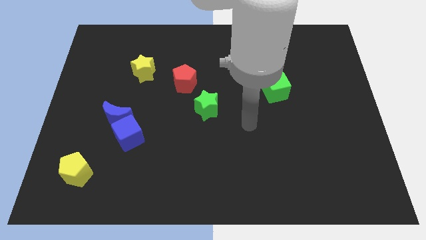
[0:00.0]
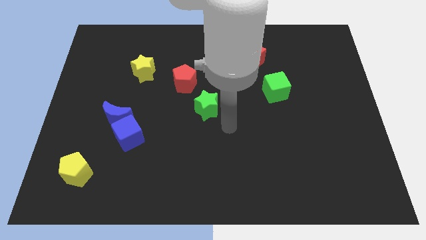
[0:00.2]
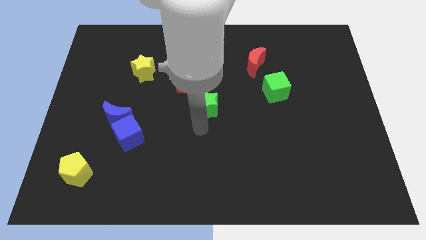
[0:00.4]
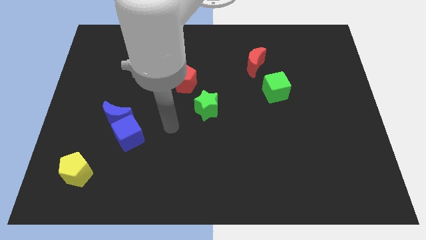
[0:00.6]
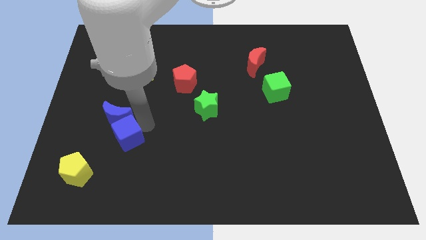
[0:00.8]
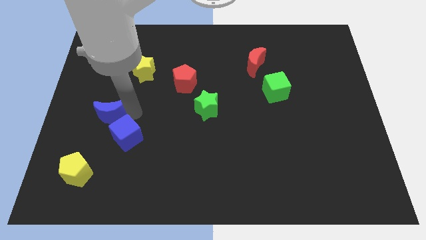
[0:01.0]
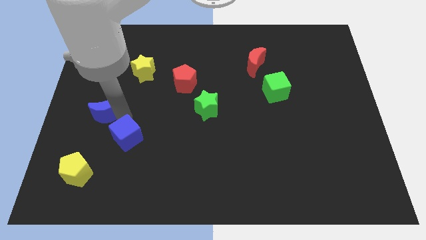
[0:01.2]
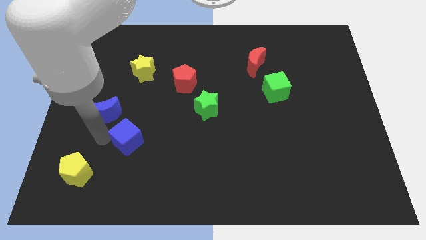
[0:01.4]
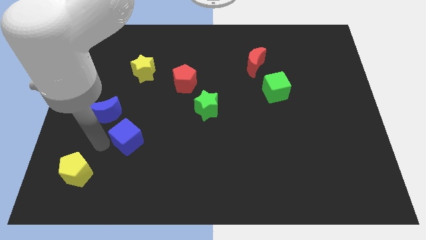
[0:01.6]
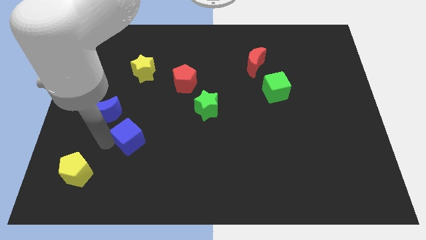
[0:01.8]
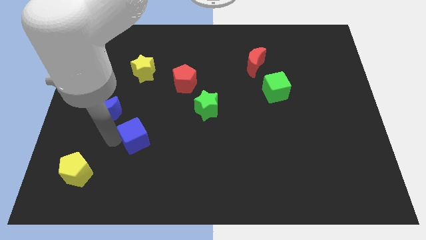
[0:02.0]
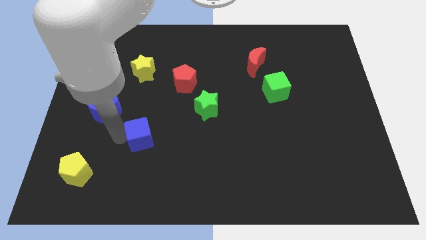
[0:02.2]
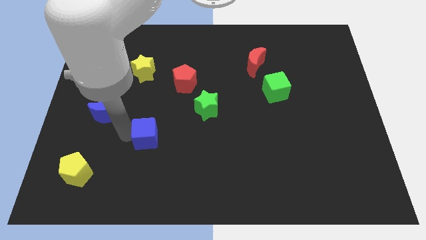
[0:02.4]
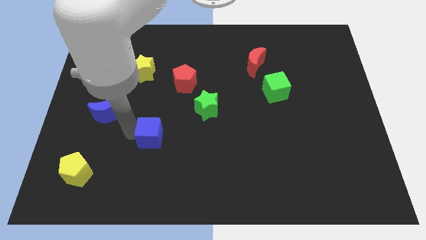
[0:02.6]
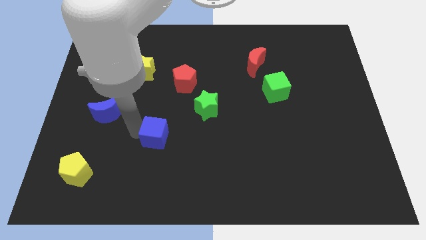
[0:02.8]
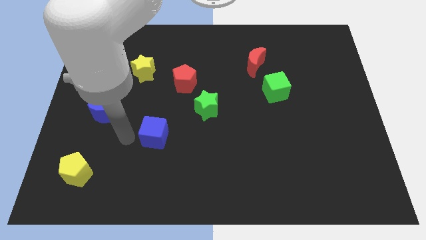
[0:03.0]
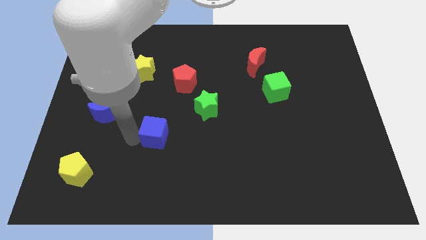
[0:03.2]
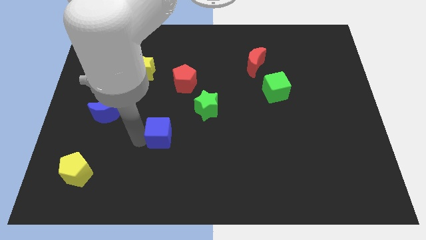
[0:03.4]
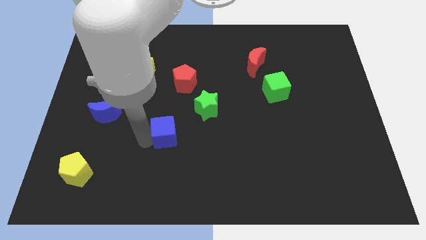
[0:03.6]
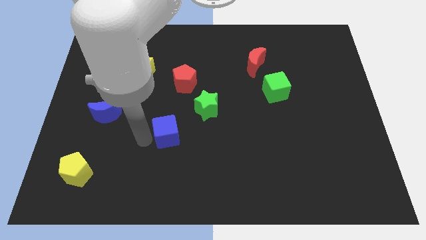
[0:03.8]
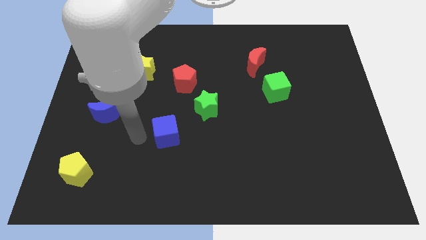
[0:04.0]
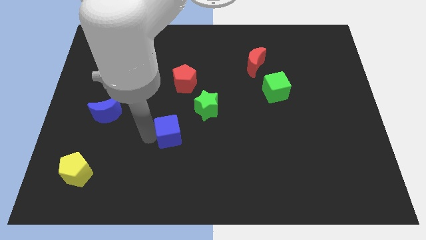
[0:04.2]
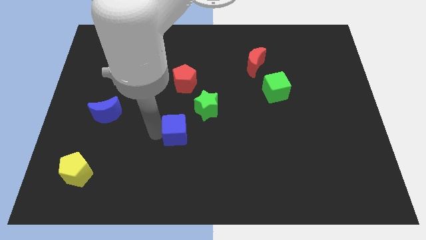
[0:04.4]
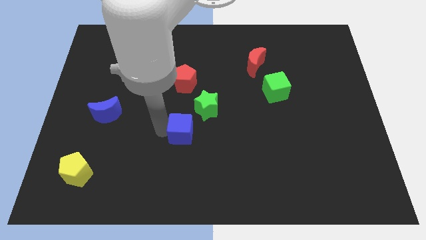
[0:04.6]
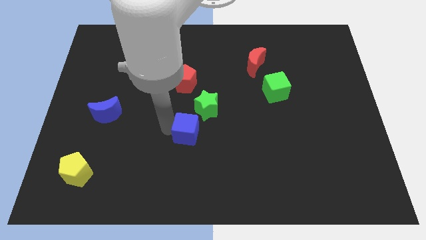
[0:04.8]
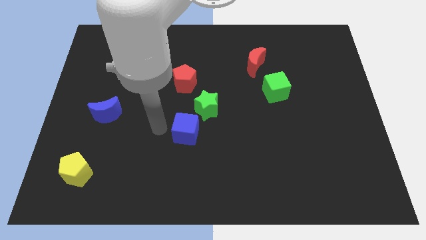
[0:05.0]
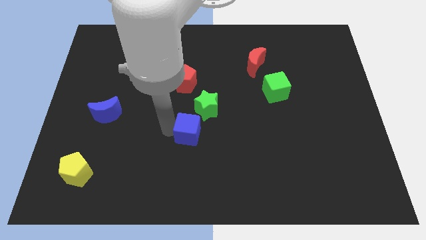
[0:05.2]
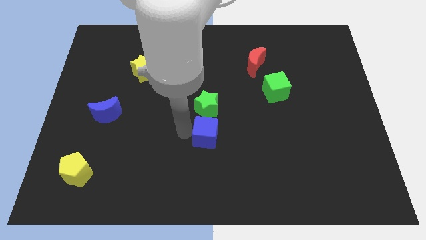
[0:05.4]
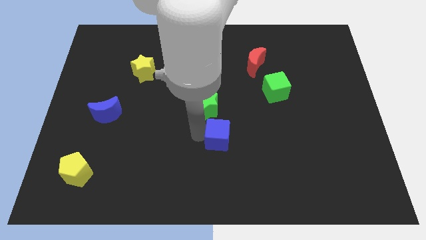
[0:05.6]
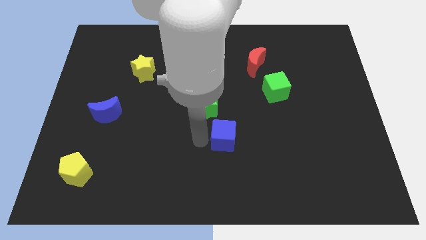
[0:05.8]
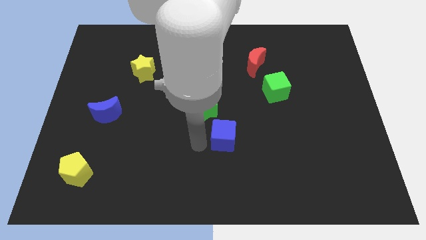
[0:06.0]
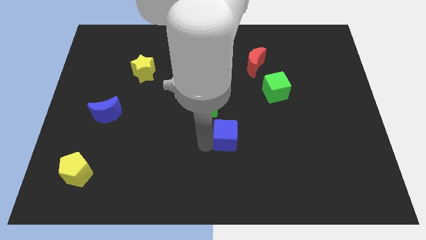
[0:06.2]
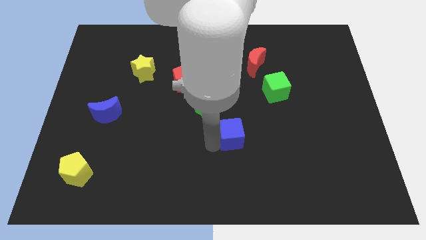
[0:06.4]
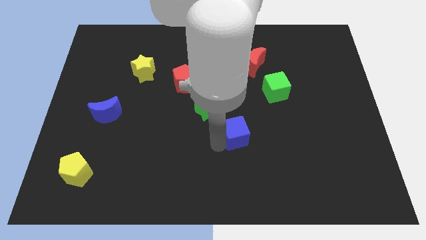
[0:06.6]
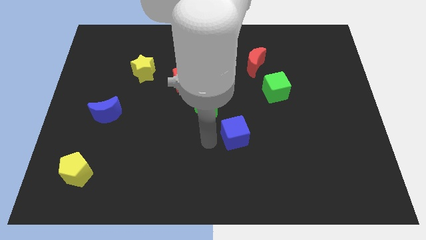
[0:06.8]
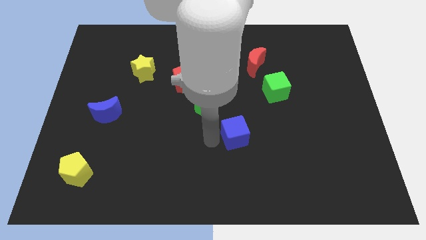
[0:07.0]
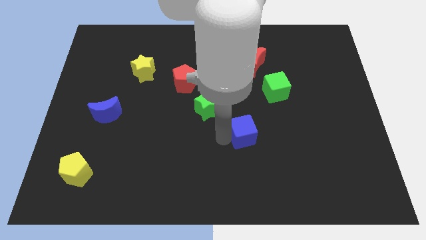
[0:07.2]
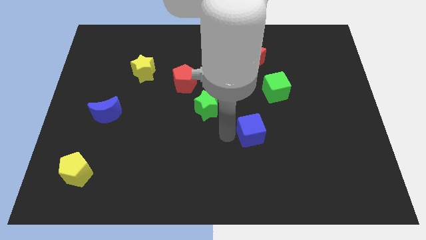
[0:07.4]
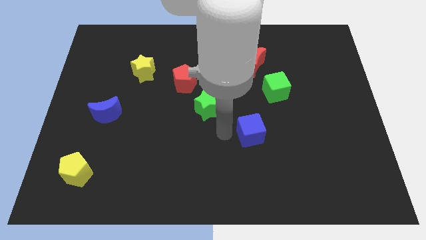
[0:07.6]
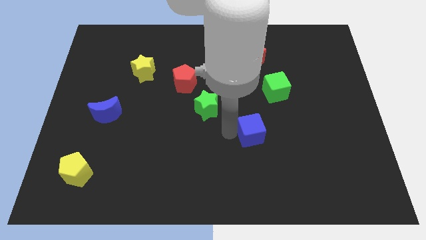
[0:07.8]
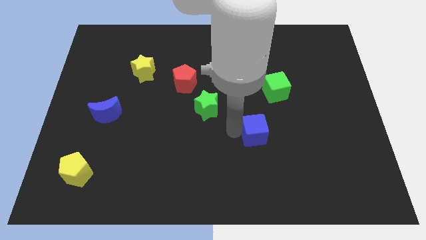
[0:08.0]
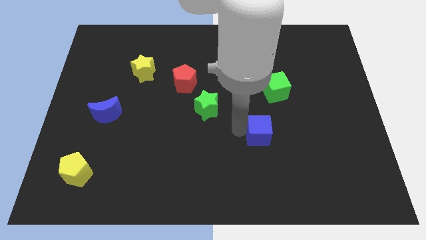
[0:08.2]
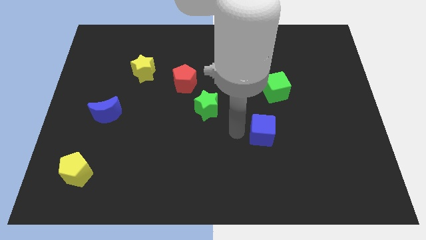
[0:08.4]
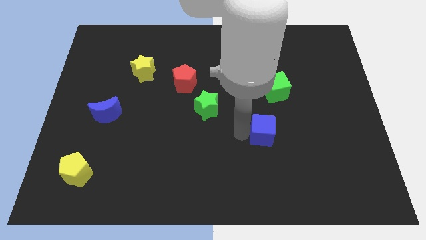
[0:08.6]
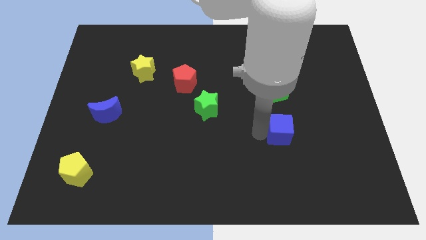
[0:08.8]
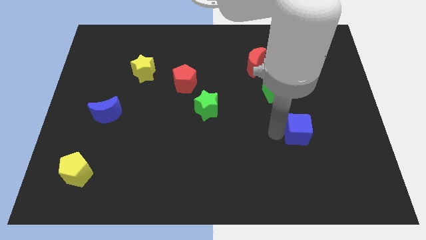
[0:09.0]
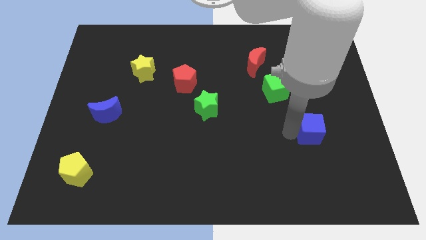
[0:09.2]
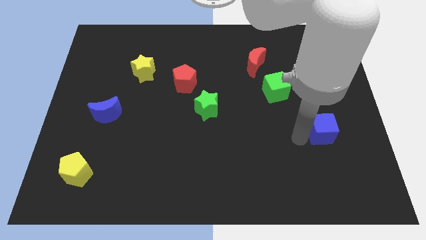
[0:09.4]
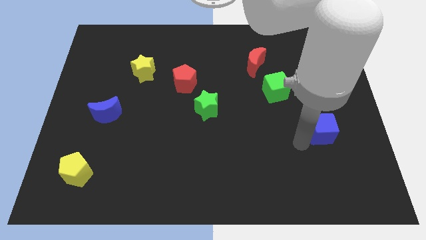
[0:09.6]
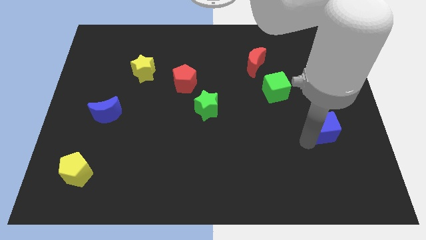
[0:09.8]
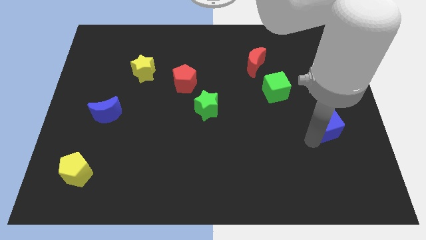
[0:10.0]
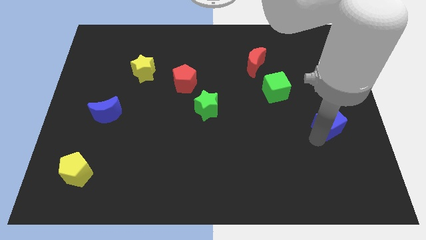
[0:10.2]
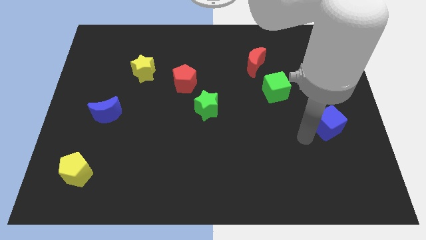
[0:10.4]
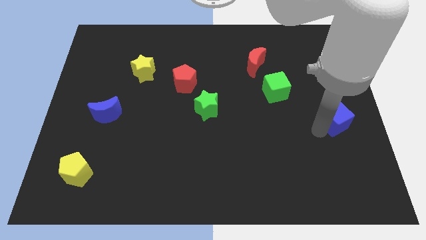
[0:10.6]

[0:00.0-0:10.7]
push the blue cube to the center right

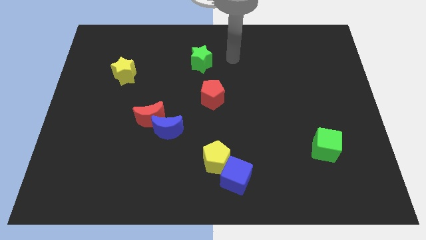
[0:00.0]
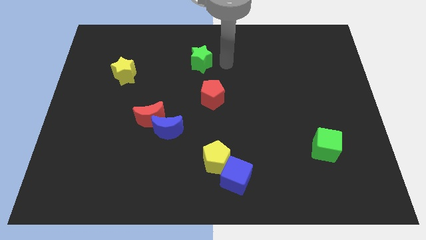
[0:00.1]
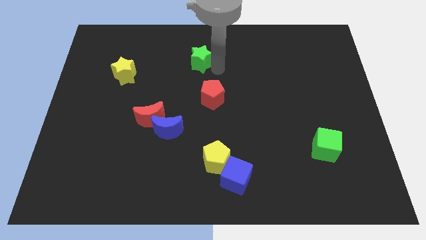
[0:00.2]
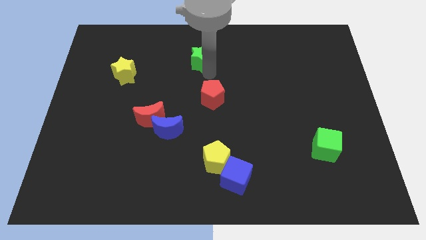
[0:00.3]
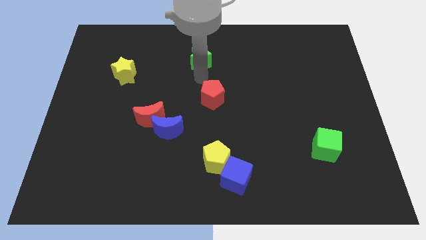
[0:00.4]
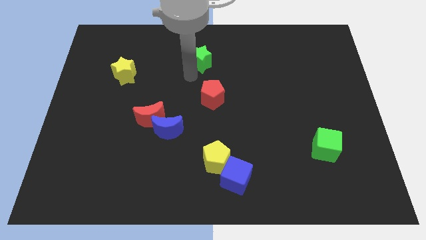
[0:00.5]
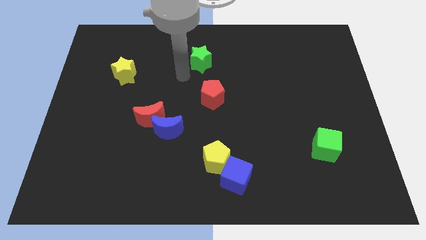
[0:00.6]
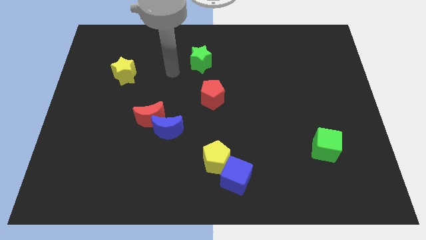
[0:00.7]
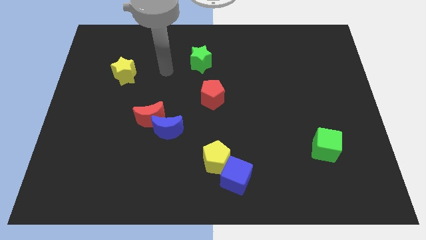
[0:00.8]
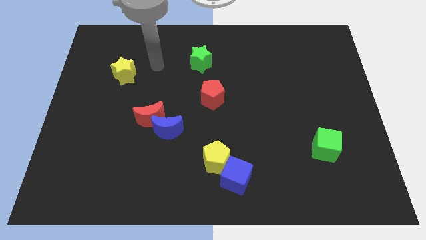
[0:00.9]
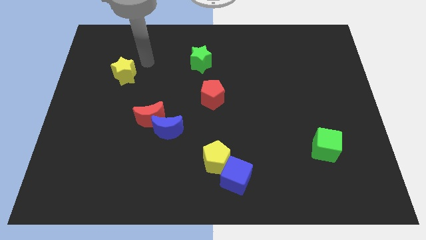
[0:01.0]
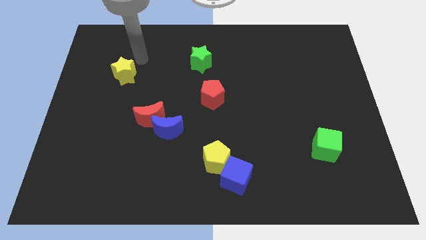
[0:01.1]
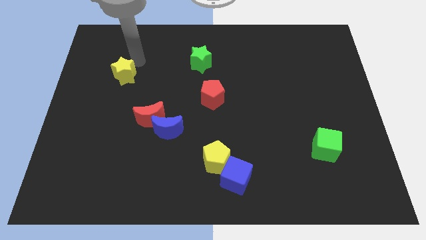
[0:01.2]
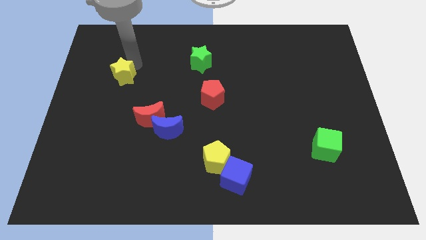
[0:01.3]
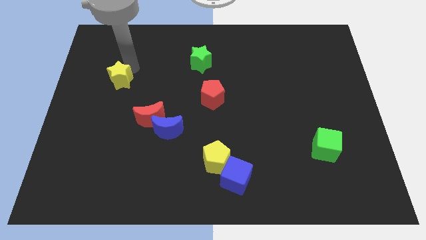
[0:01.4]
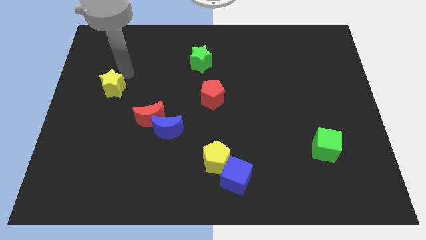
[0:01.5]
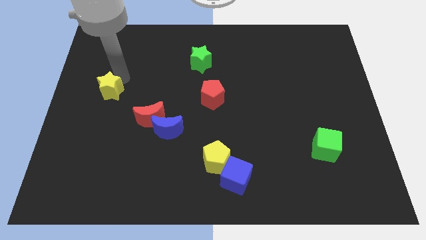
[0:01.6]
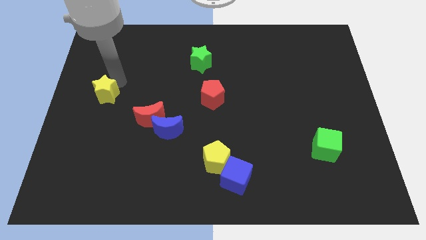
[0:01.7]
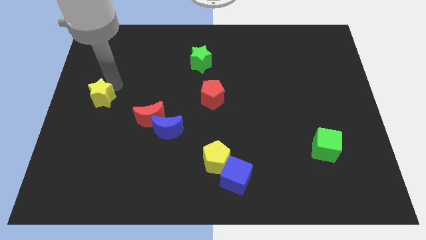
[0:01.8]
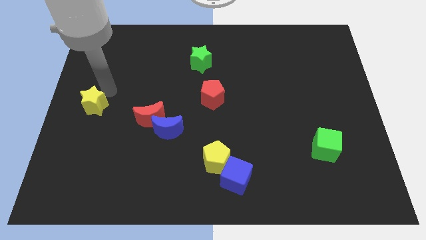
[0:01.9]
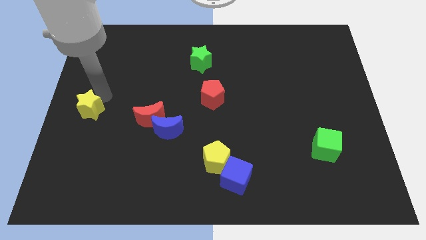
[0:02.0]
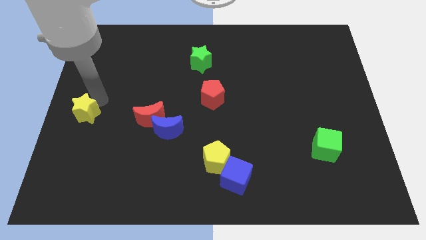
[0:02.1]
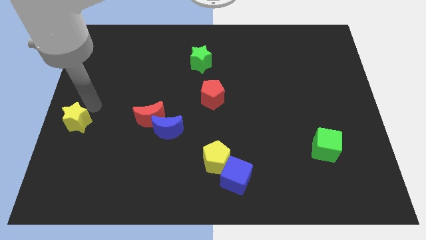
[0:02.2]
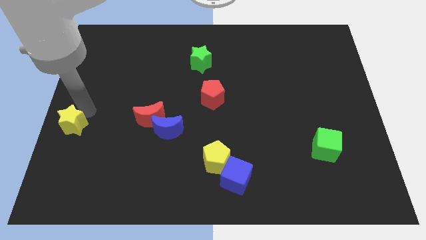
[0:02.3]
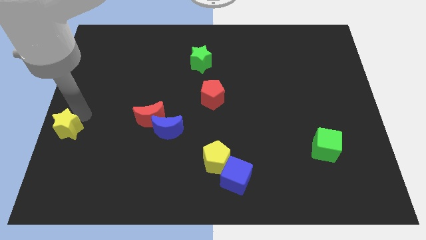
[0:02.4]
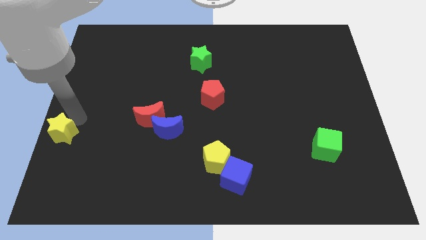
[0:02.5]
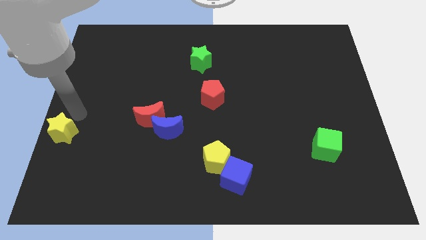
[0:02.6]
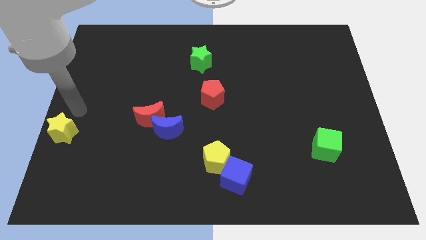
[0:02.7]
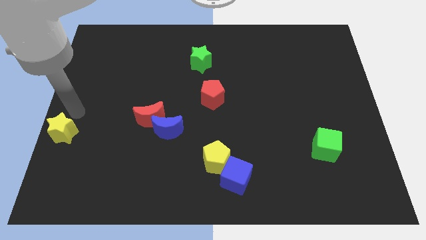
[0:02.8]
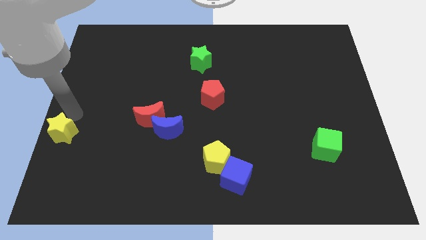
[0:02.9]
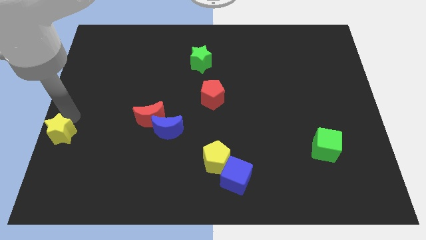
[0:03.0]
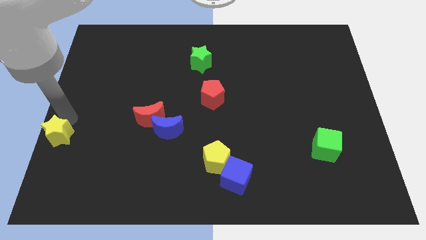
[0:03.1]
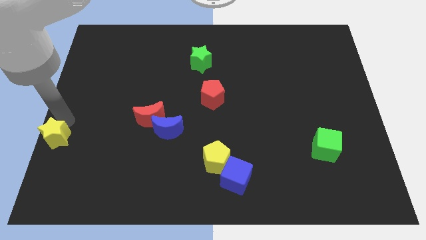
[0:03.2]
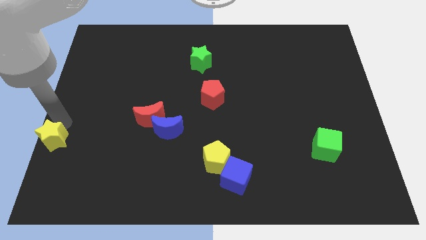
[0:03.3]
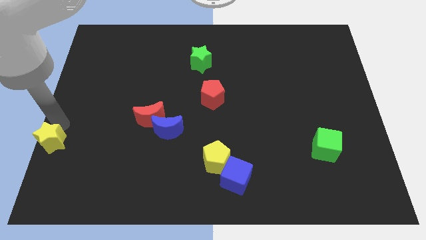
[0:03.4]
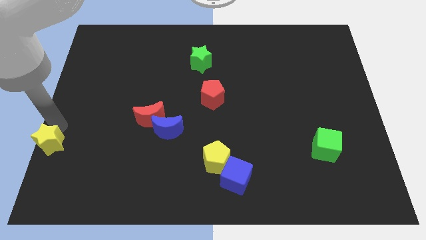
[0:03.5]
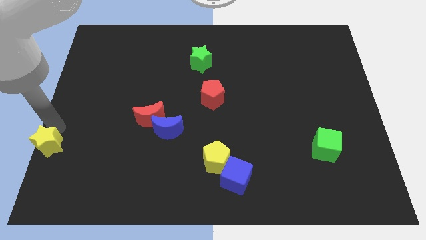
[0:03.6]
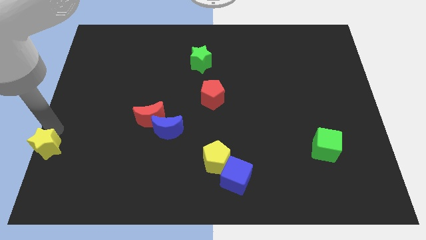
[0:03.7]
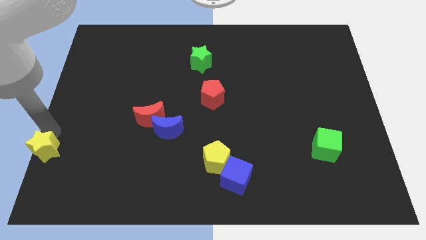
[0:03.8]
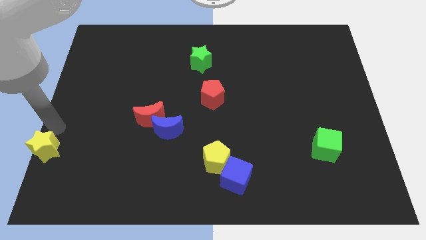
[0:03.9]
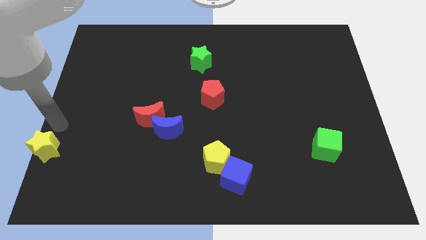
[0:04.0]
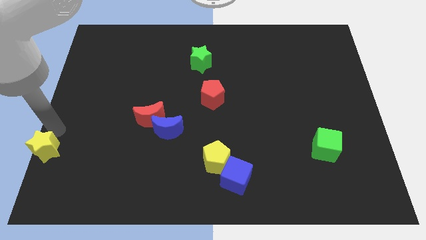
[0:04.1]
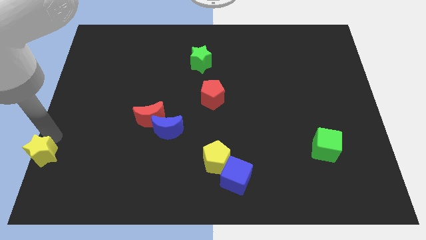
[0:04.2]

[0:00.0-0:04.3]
move the yellow star to the lower left corner
